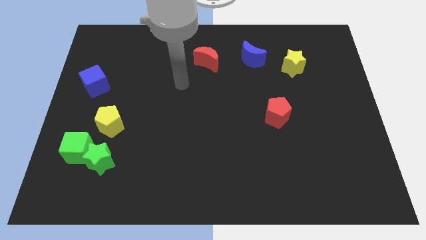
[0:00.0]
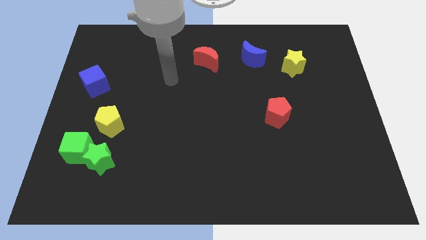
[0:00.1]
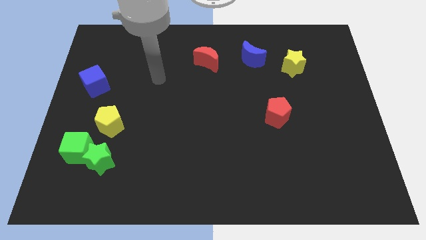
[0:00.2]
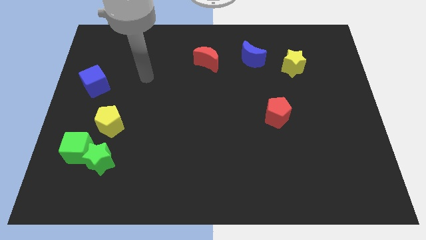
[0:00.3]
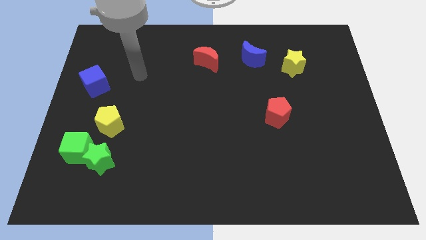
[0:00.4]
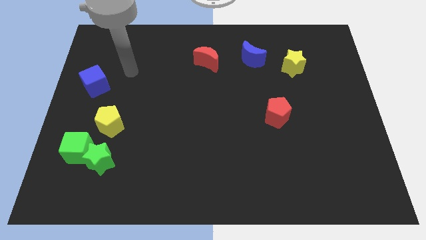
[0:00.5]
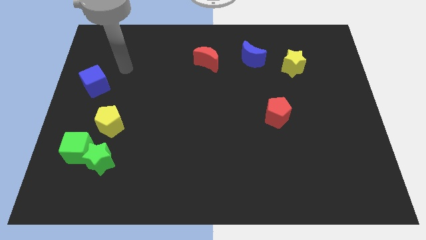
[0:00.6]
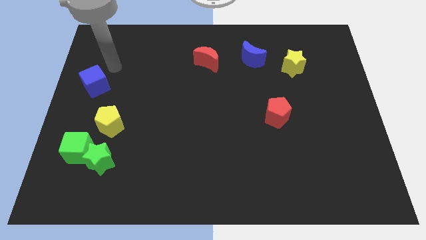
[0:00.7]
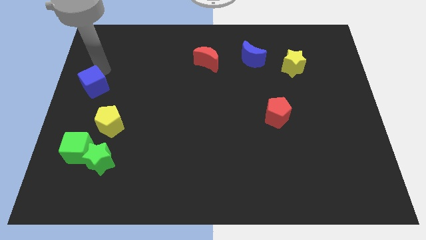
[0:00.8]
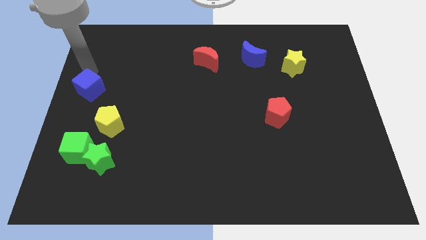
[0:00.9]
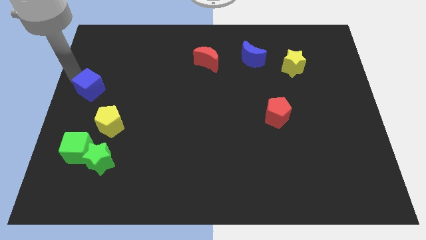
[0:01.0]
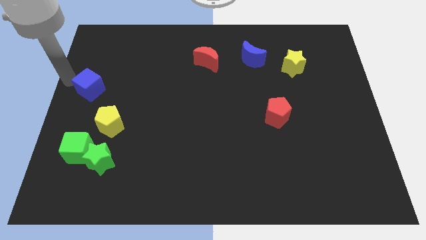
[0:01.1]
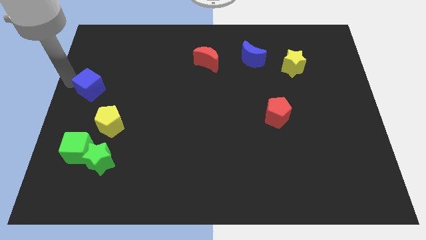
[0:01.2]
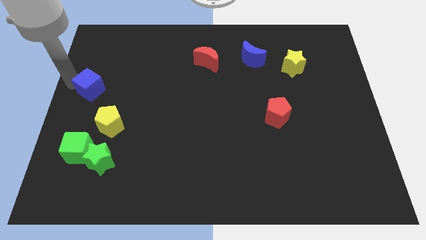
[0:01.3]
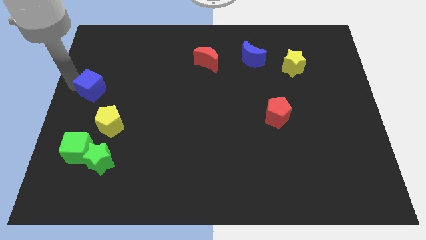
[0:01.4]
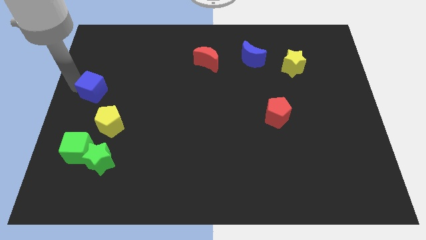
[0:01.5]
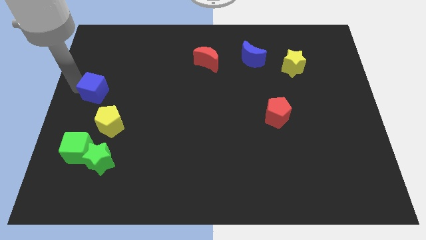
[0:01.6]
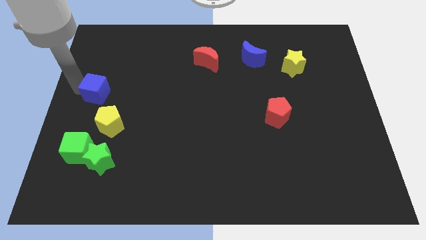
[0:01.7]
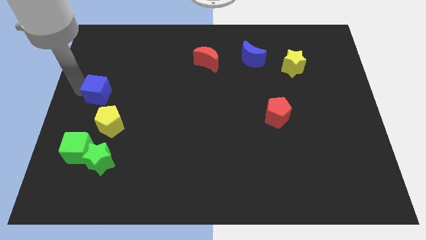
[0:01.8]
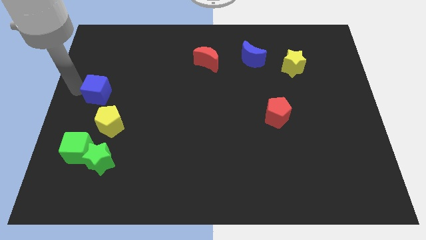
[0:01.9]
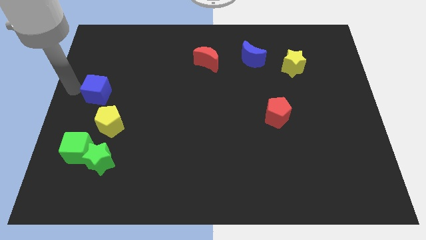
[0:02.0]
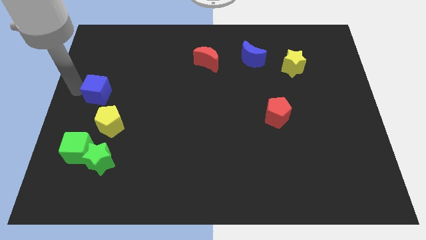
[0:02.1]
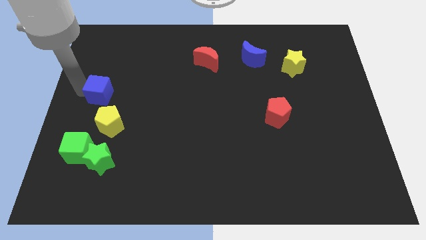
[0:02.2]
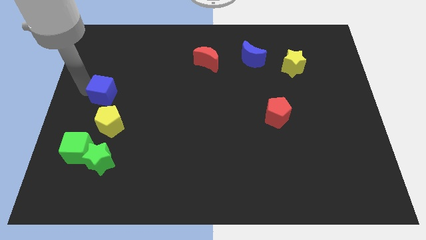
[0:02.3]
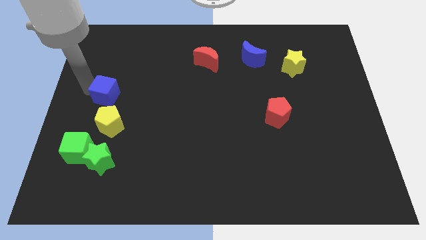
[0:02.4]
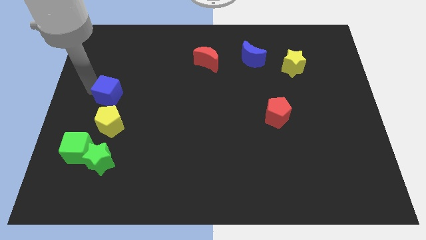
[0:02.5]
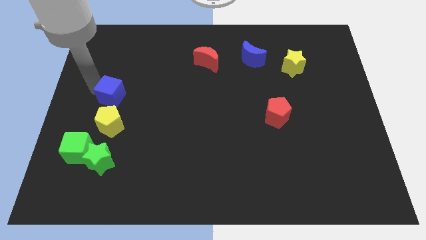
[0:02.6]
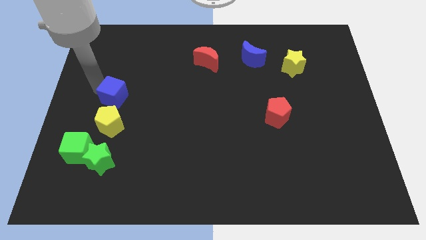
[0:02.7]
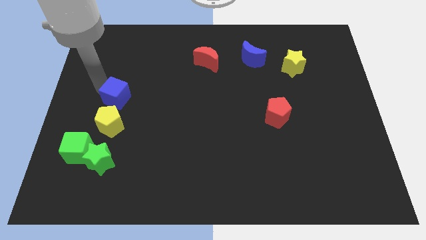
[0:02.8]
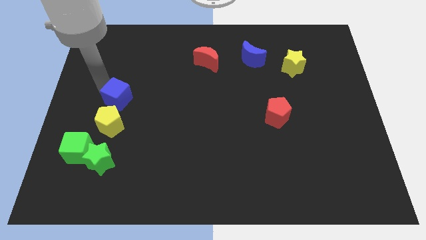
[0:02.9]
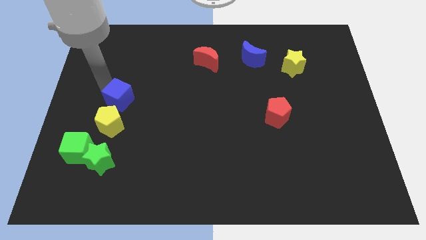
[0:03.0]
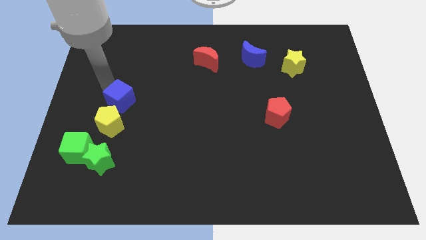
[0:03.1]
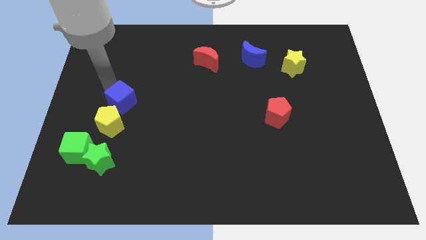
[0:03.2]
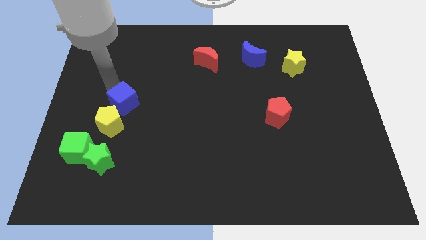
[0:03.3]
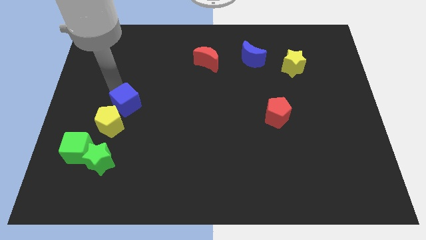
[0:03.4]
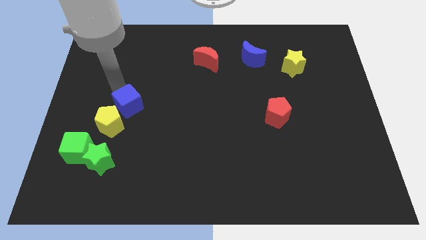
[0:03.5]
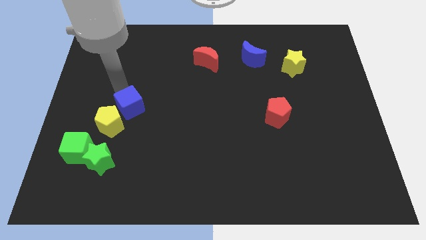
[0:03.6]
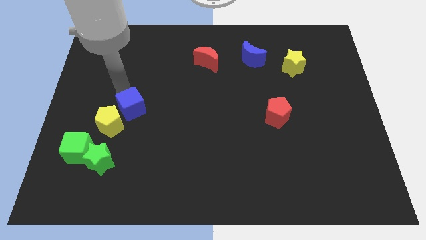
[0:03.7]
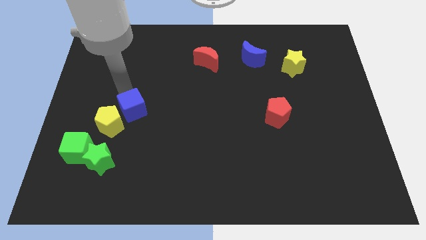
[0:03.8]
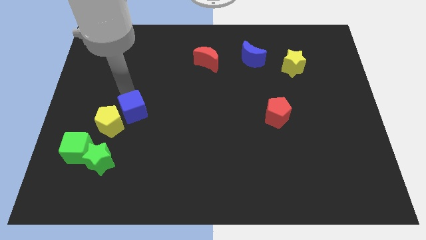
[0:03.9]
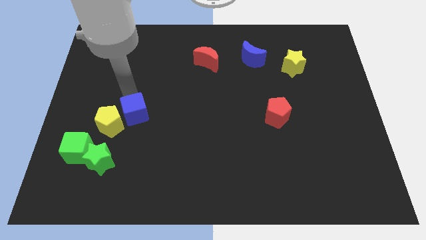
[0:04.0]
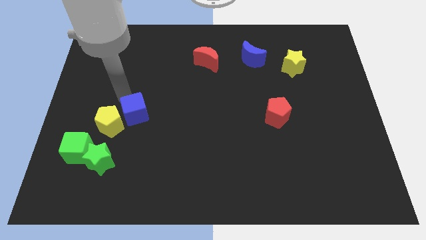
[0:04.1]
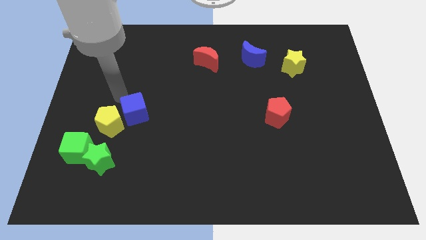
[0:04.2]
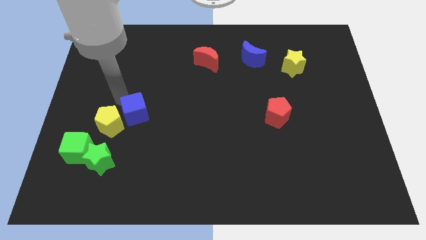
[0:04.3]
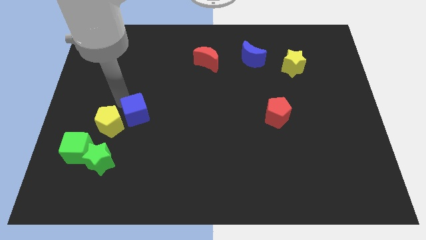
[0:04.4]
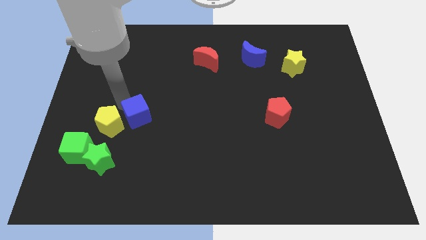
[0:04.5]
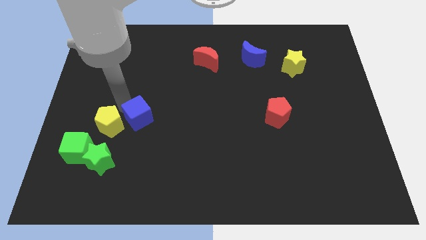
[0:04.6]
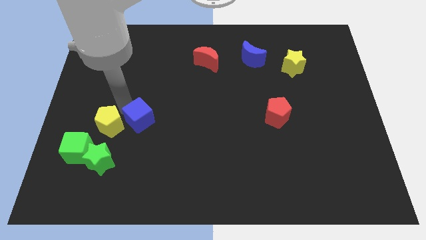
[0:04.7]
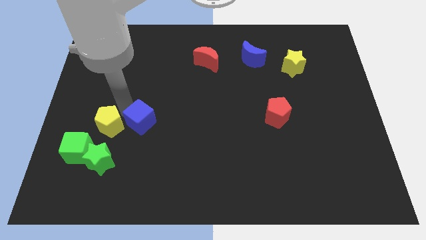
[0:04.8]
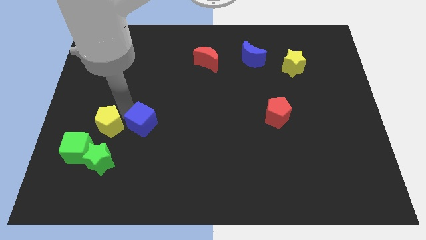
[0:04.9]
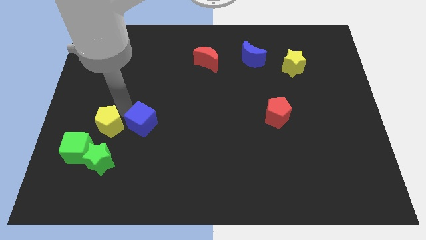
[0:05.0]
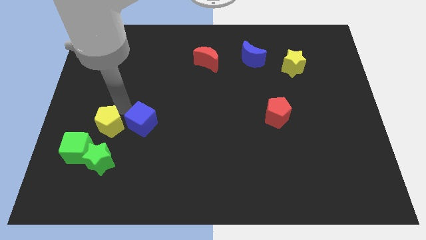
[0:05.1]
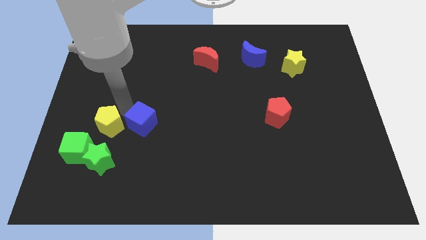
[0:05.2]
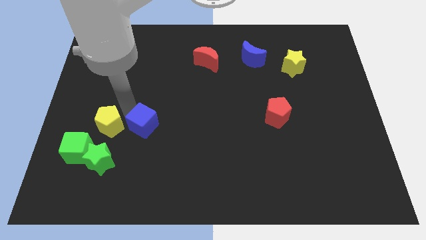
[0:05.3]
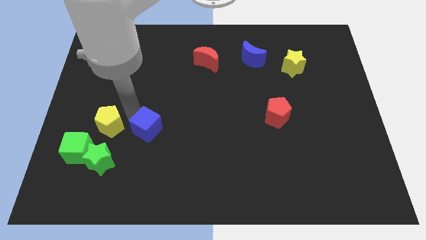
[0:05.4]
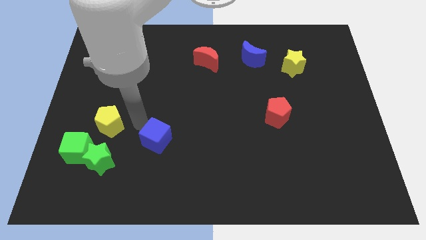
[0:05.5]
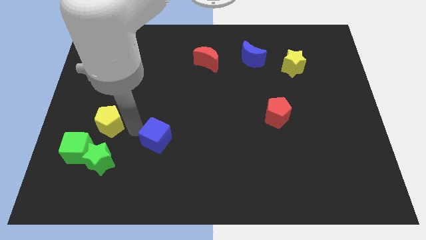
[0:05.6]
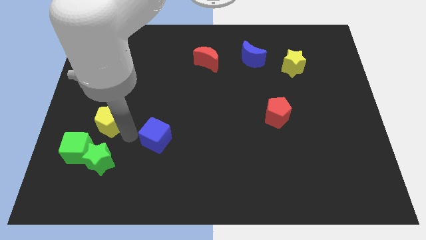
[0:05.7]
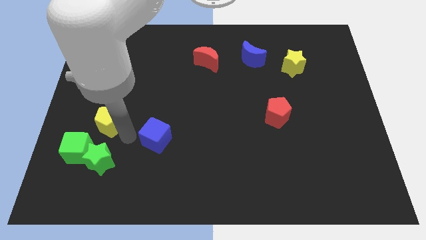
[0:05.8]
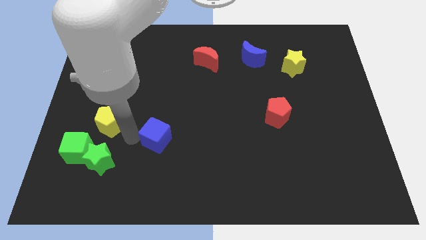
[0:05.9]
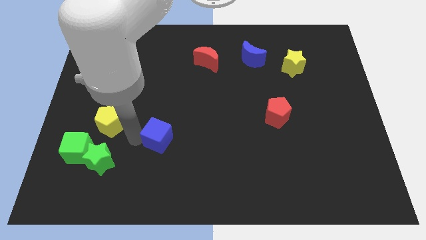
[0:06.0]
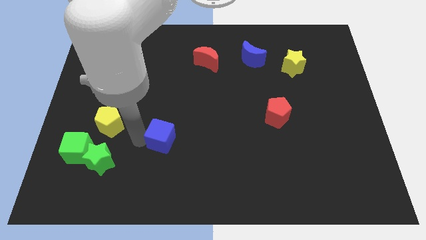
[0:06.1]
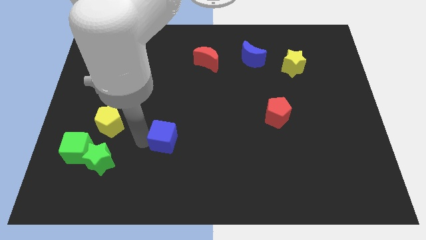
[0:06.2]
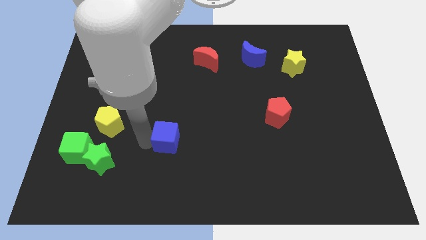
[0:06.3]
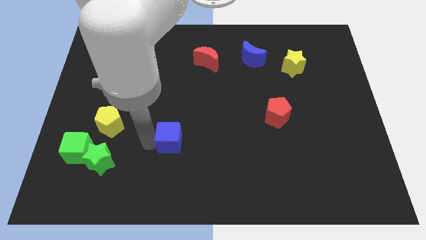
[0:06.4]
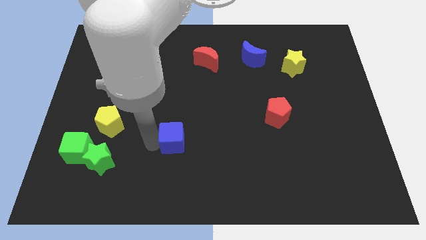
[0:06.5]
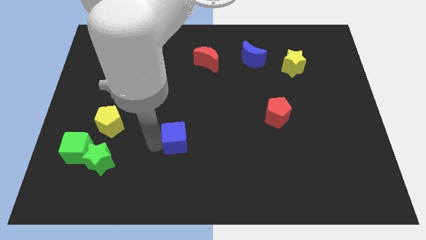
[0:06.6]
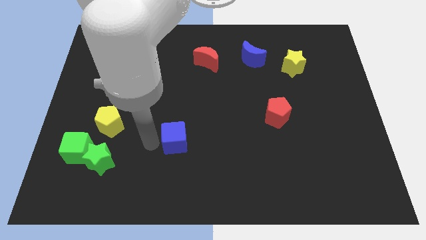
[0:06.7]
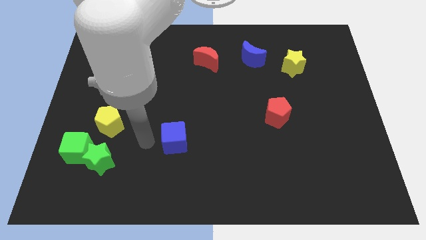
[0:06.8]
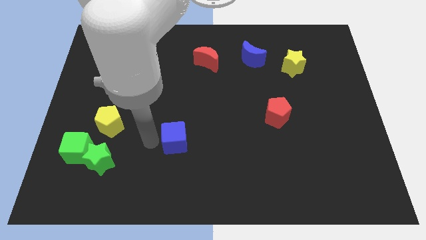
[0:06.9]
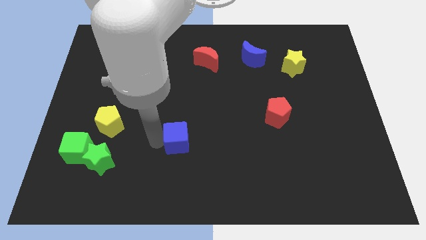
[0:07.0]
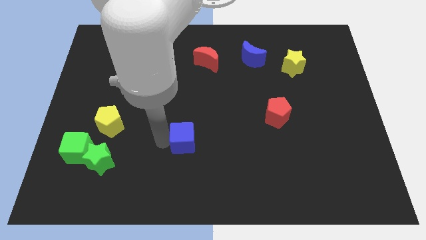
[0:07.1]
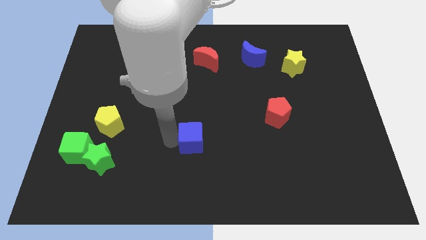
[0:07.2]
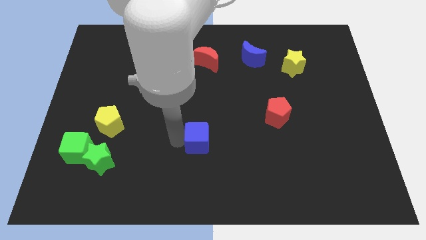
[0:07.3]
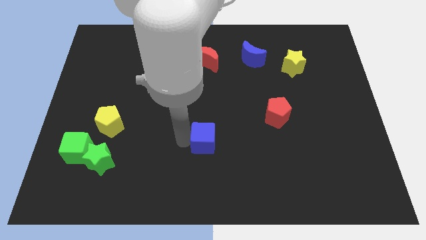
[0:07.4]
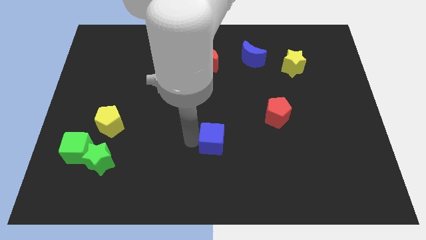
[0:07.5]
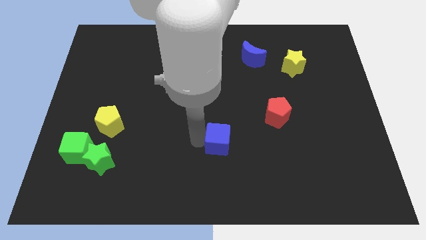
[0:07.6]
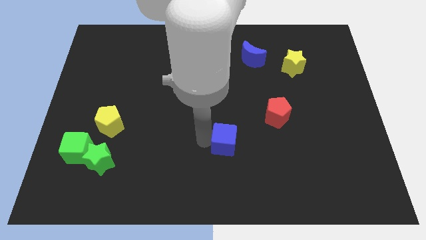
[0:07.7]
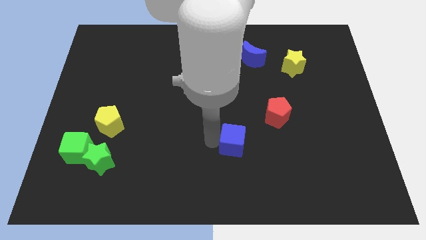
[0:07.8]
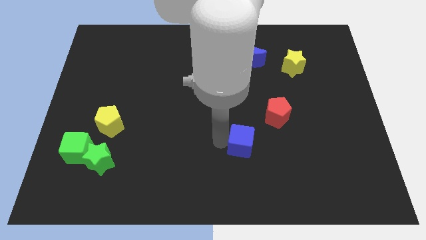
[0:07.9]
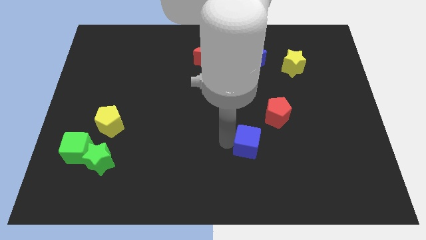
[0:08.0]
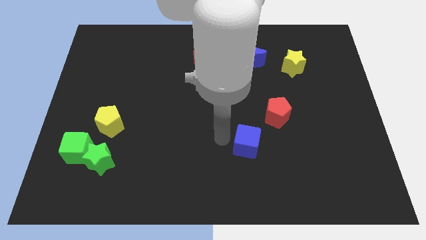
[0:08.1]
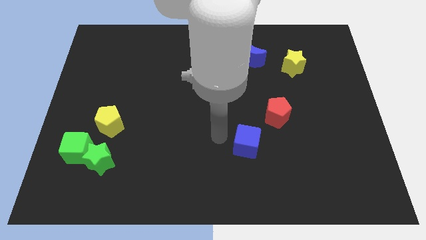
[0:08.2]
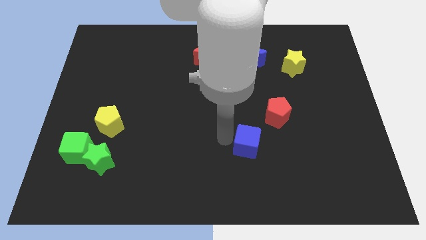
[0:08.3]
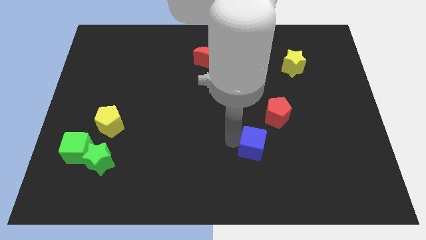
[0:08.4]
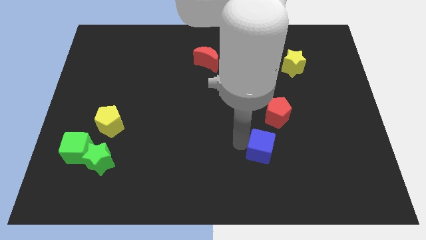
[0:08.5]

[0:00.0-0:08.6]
push the blue cube to the bottom of the red pentagon
